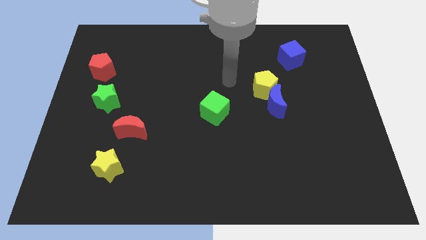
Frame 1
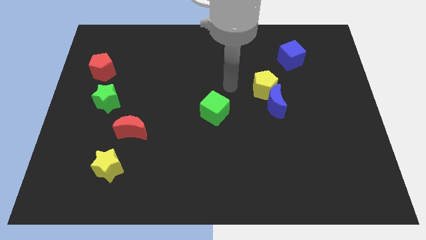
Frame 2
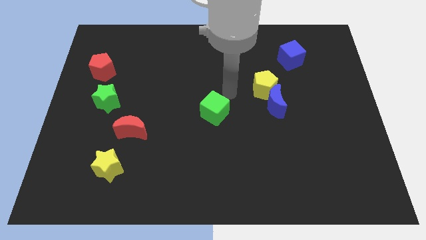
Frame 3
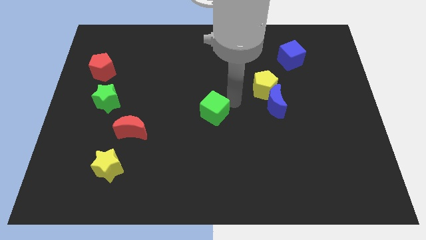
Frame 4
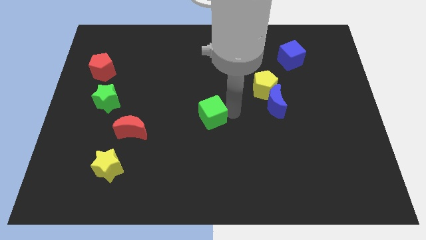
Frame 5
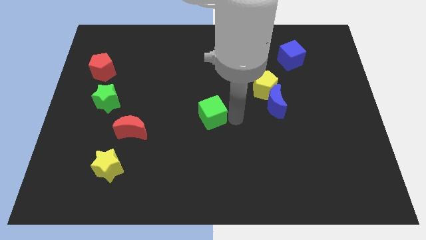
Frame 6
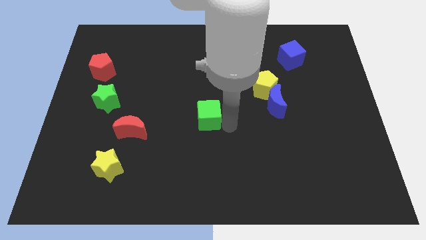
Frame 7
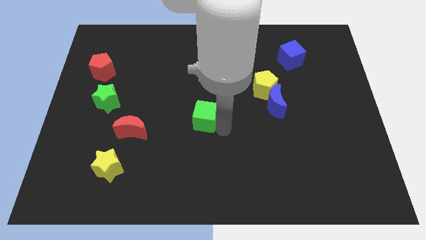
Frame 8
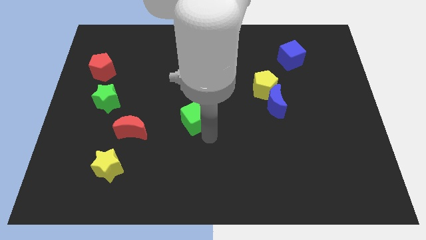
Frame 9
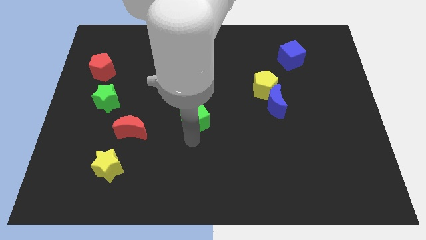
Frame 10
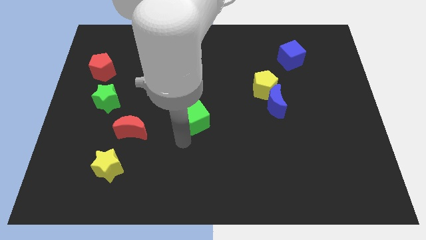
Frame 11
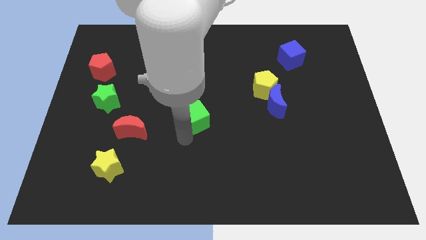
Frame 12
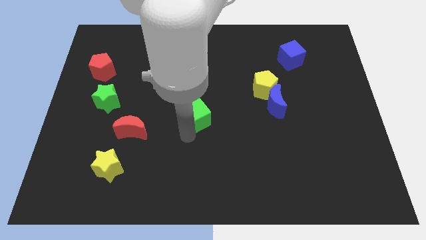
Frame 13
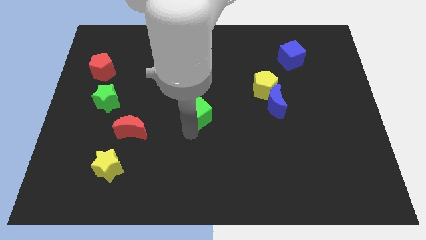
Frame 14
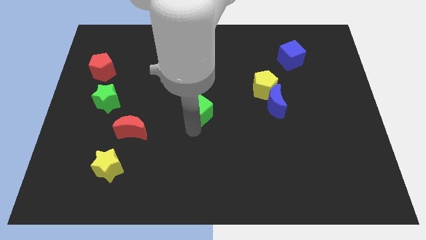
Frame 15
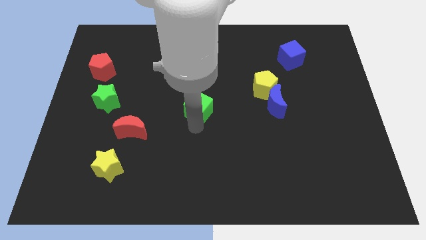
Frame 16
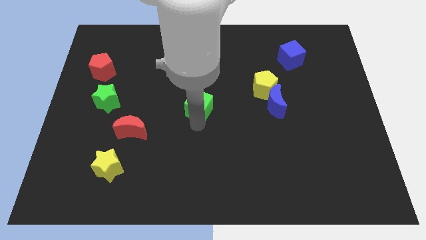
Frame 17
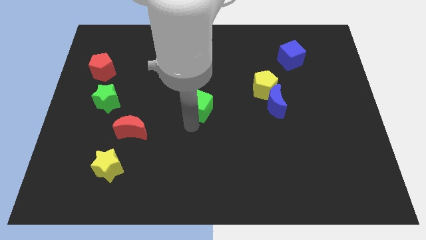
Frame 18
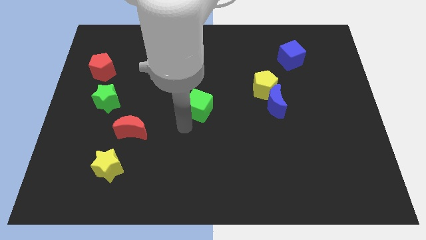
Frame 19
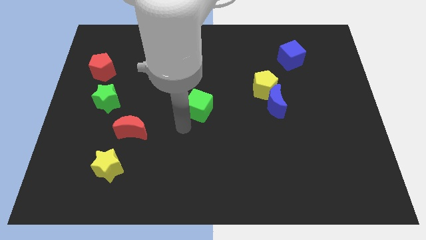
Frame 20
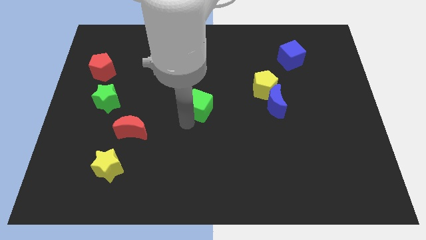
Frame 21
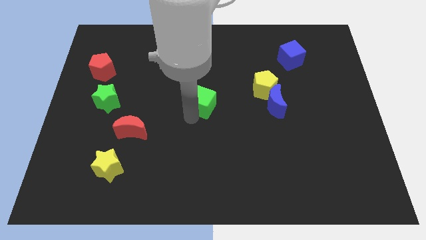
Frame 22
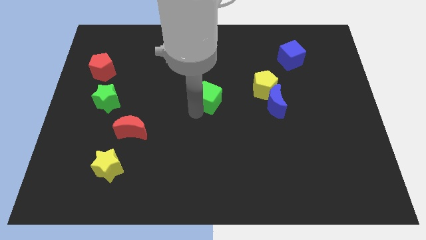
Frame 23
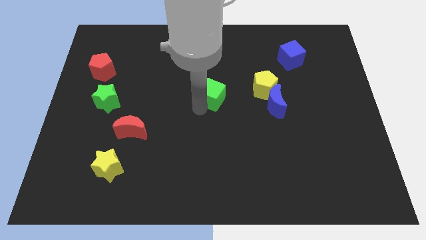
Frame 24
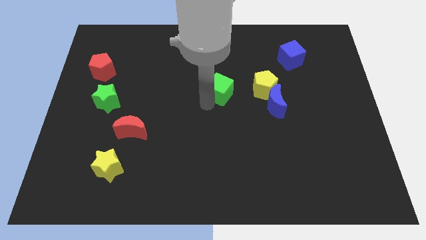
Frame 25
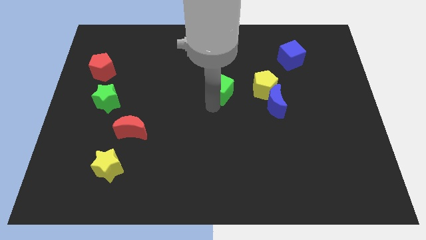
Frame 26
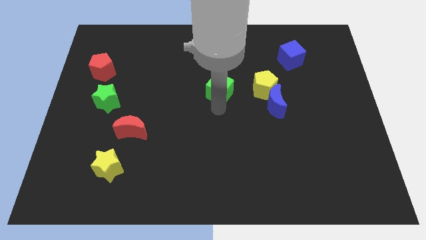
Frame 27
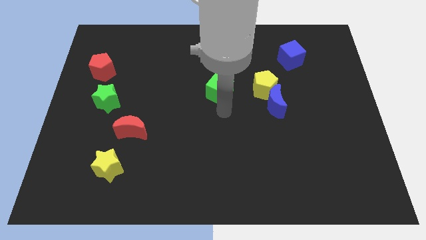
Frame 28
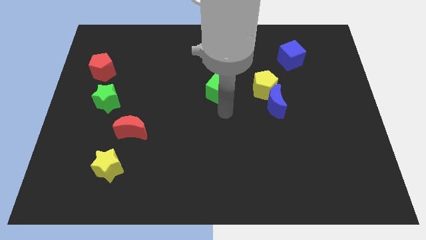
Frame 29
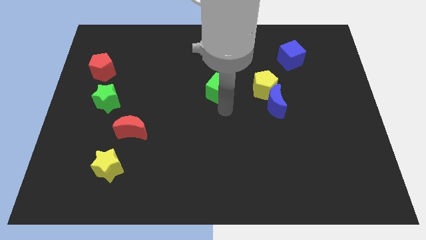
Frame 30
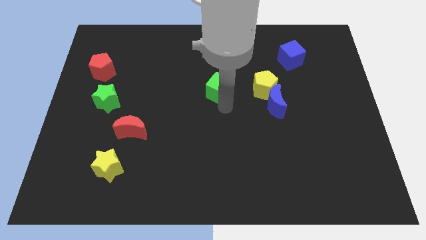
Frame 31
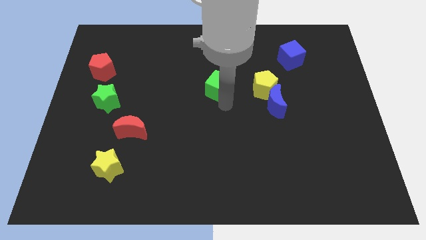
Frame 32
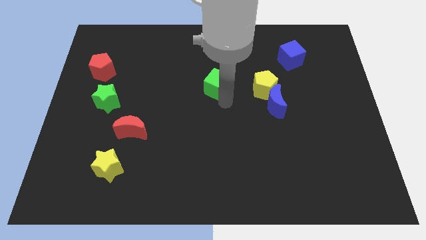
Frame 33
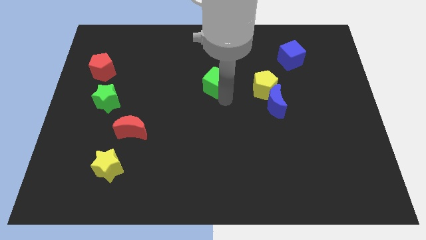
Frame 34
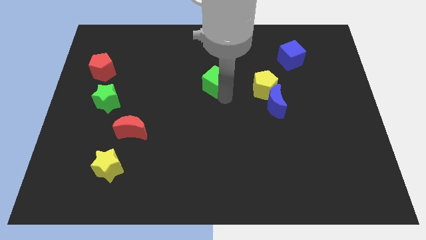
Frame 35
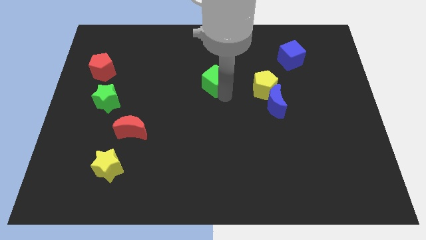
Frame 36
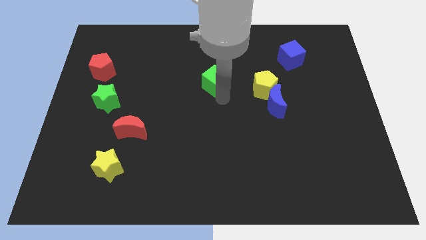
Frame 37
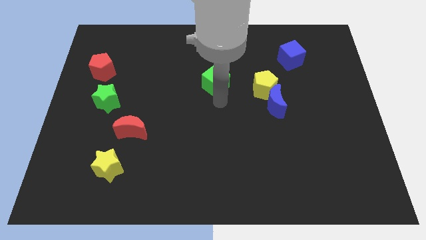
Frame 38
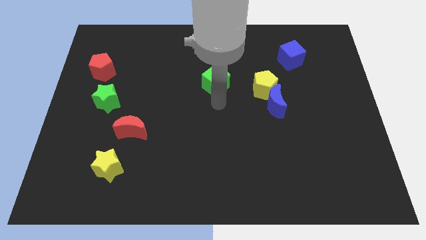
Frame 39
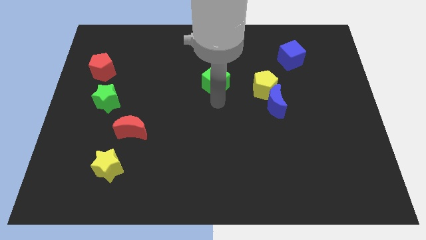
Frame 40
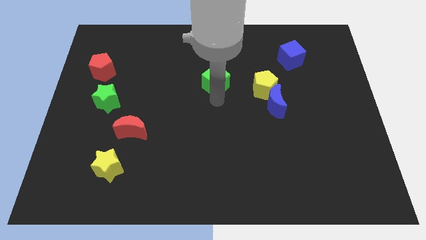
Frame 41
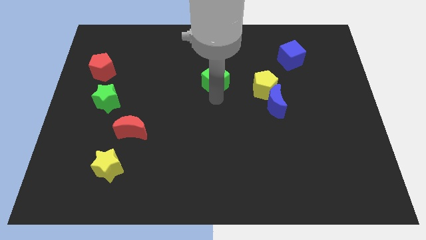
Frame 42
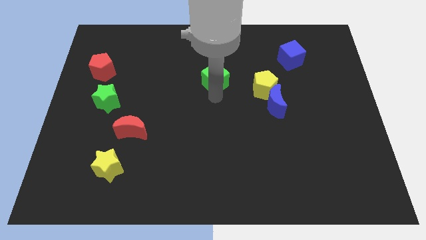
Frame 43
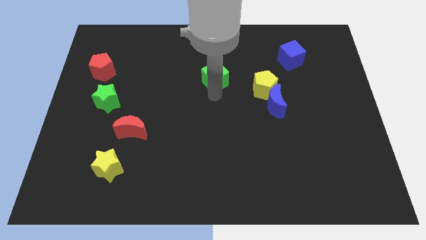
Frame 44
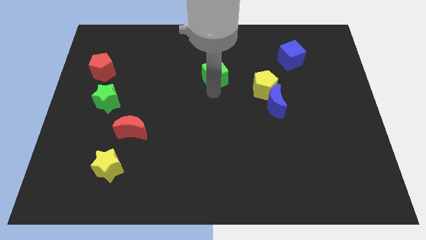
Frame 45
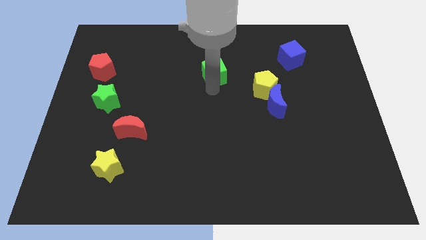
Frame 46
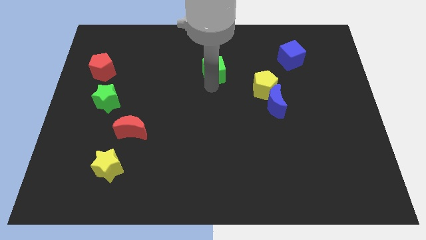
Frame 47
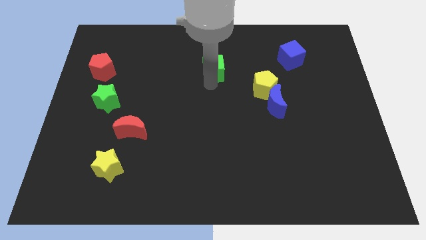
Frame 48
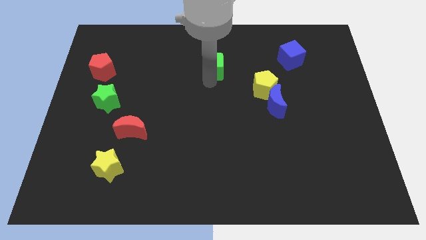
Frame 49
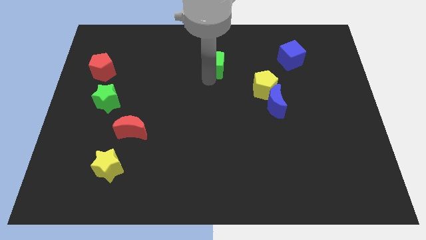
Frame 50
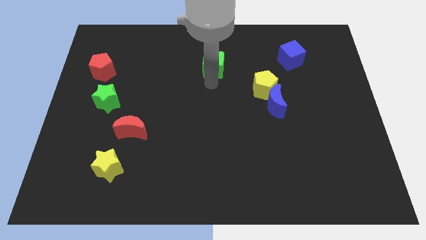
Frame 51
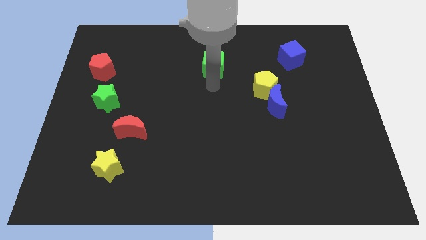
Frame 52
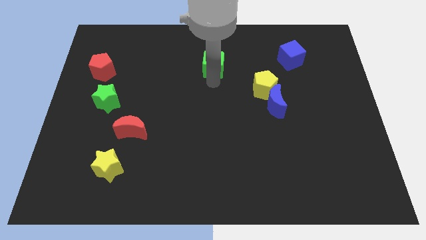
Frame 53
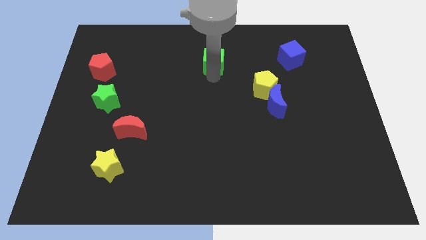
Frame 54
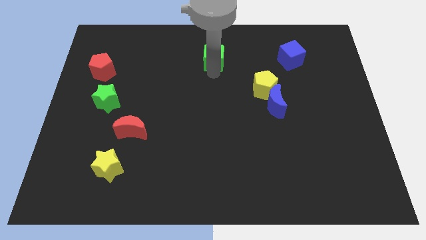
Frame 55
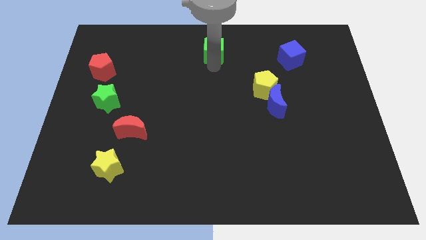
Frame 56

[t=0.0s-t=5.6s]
put the green cube to the towards your base

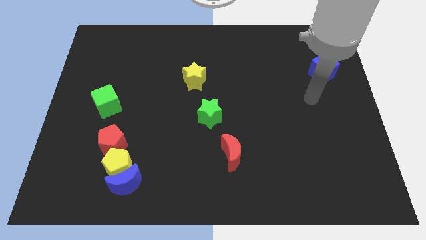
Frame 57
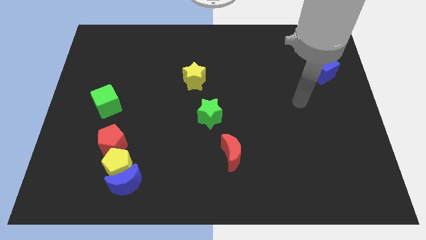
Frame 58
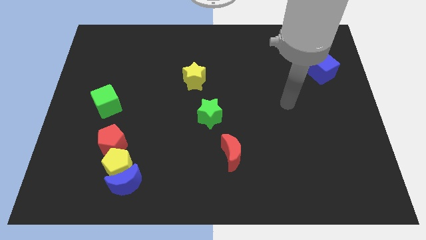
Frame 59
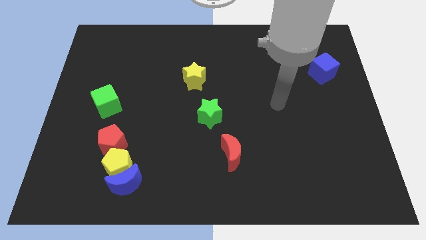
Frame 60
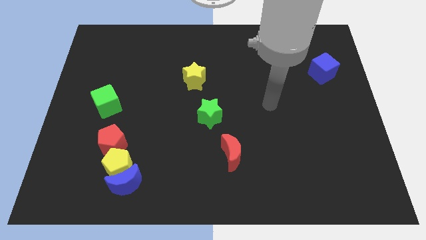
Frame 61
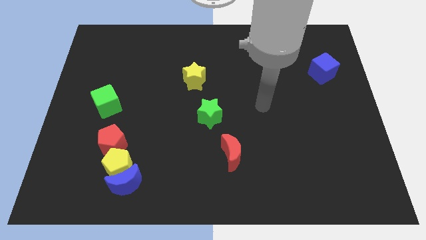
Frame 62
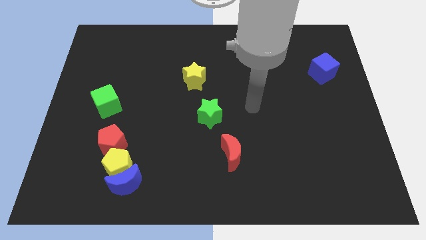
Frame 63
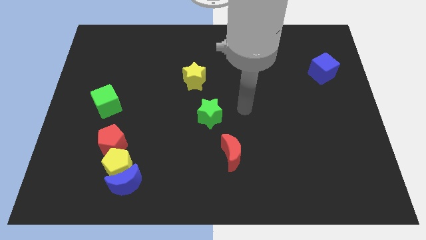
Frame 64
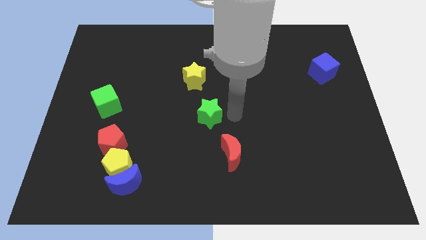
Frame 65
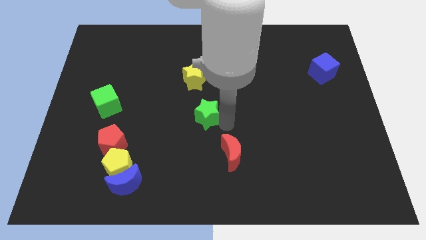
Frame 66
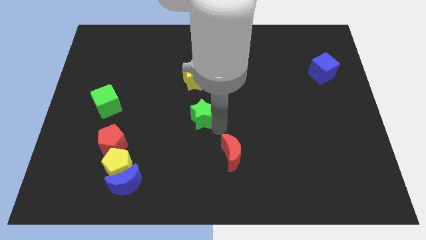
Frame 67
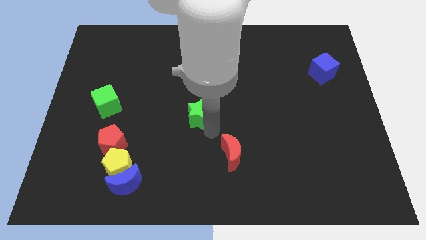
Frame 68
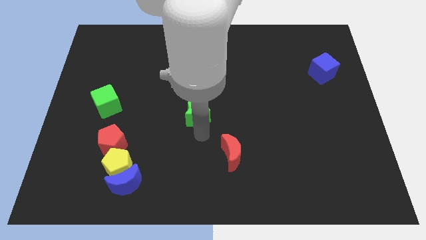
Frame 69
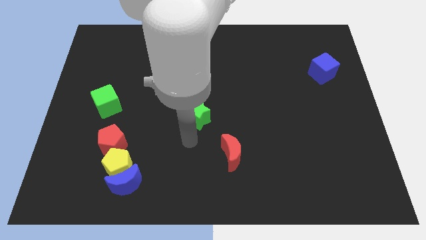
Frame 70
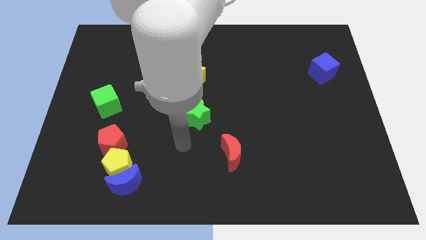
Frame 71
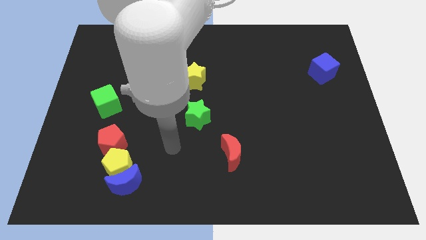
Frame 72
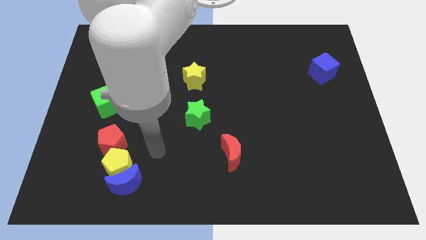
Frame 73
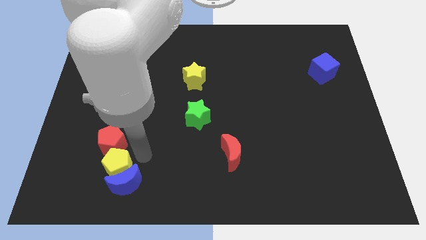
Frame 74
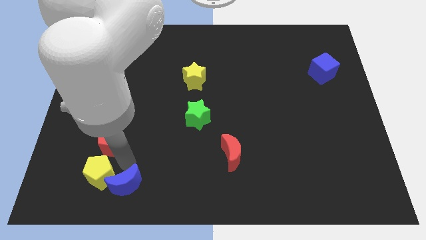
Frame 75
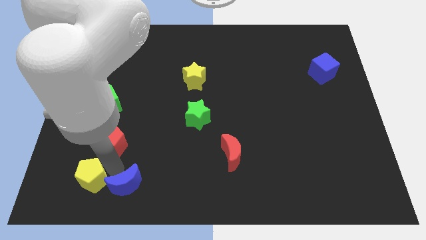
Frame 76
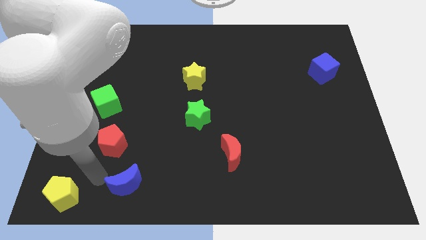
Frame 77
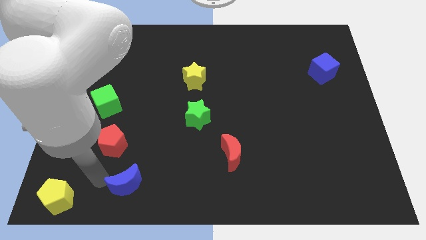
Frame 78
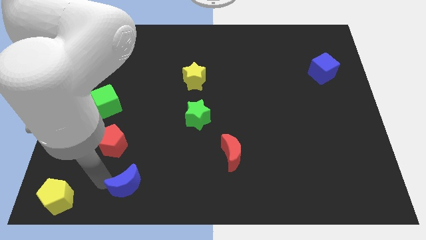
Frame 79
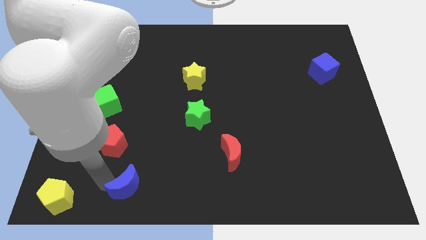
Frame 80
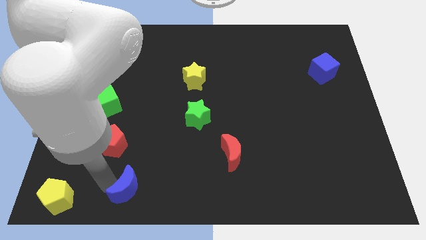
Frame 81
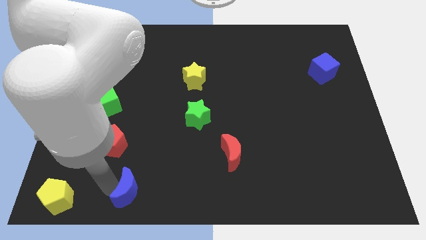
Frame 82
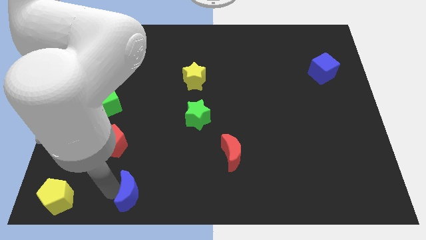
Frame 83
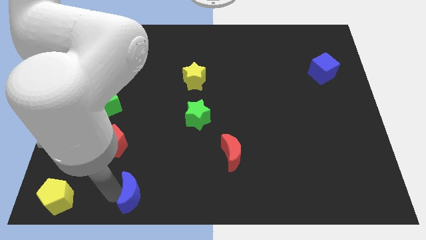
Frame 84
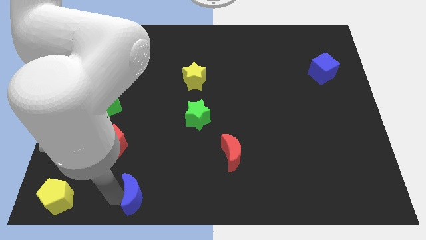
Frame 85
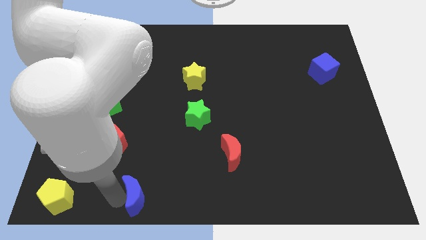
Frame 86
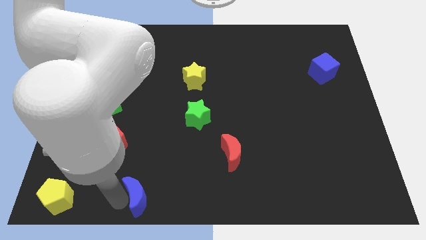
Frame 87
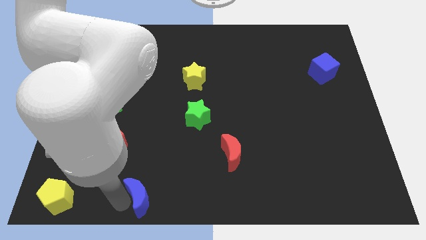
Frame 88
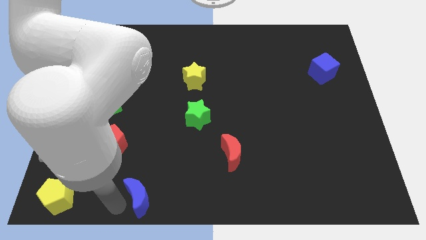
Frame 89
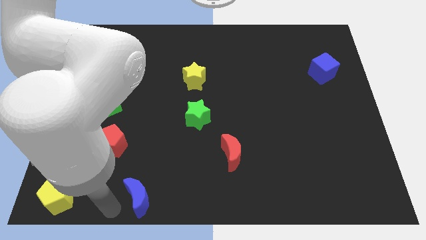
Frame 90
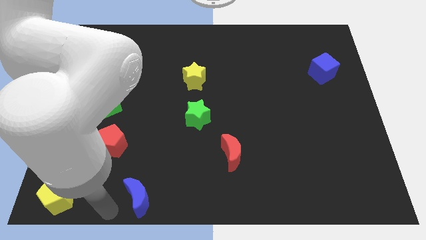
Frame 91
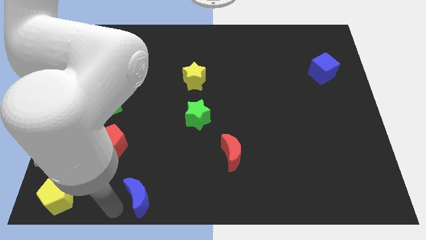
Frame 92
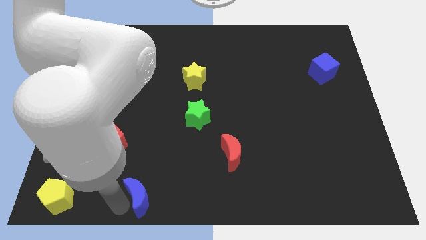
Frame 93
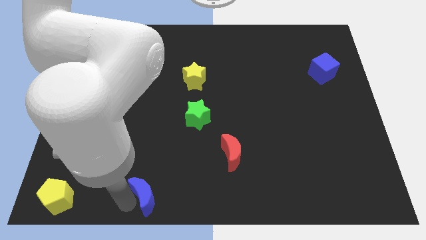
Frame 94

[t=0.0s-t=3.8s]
move the blue moon to the bottom side
